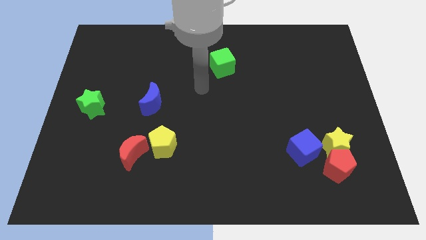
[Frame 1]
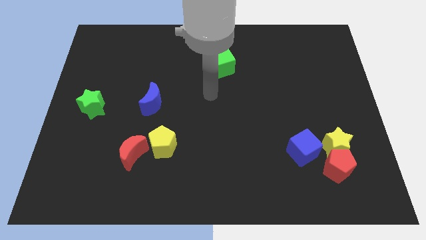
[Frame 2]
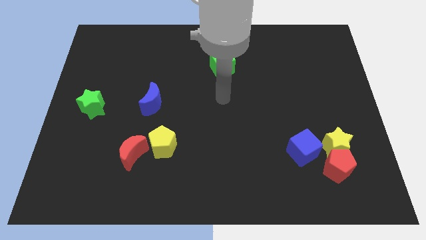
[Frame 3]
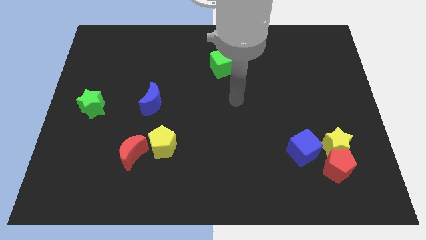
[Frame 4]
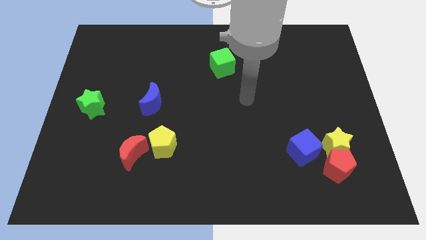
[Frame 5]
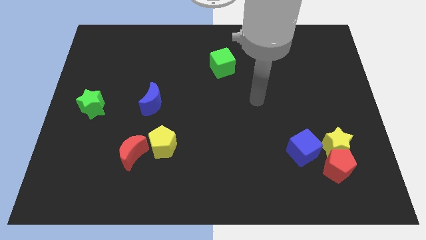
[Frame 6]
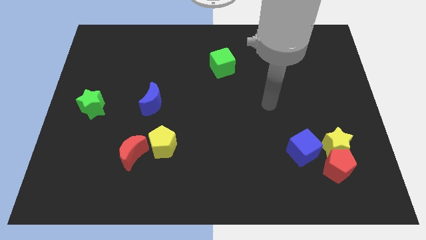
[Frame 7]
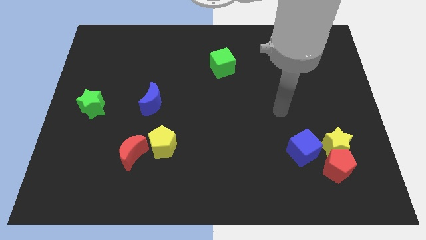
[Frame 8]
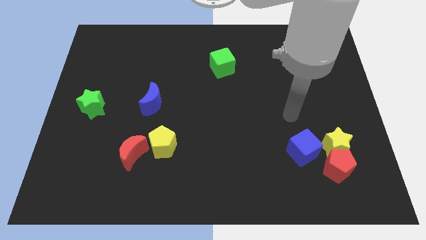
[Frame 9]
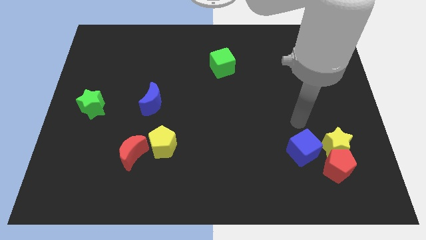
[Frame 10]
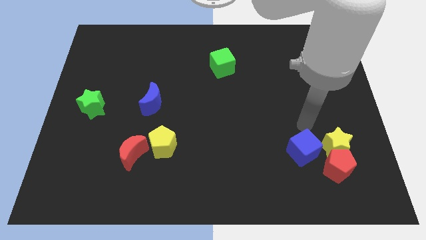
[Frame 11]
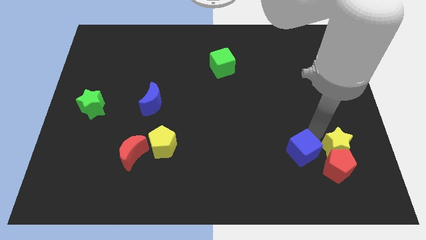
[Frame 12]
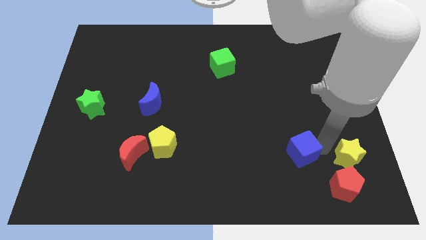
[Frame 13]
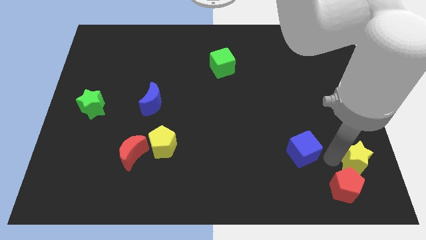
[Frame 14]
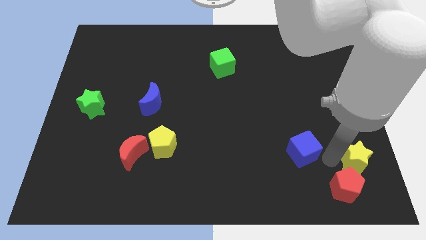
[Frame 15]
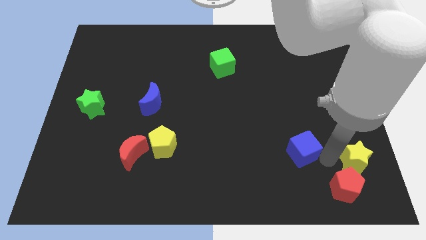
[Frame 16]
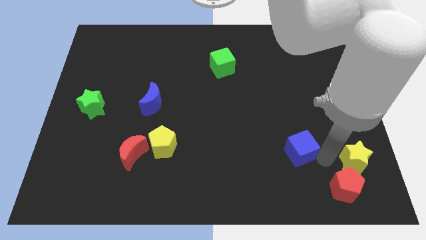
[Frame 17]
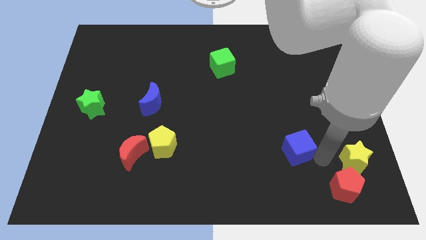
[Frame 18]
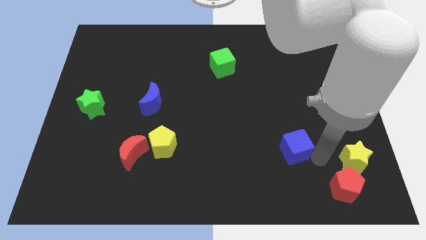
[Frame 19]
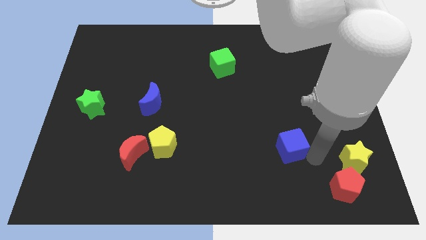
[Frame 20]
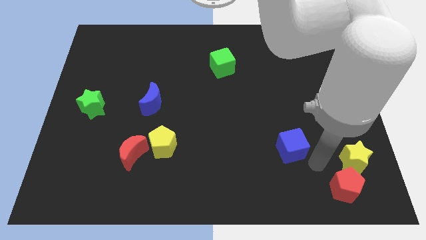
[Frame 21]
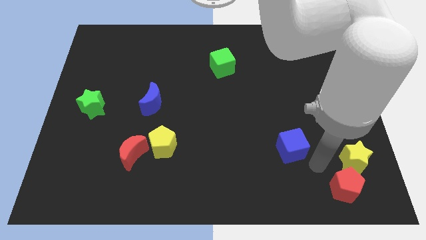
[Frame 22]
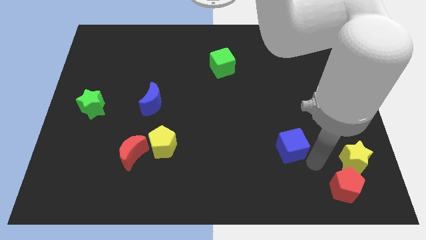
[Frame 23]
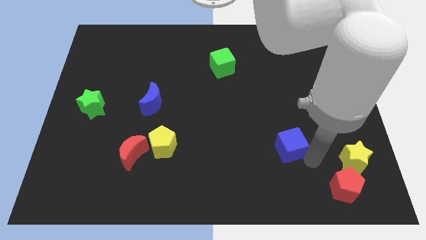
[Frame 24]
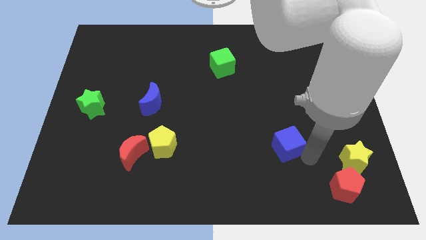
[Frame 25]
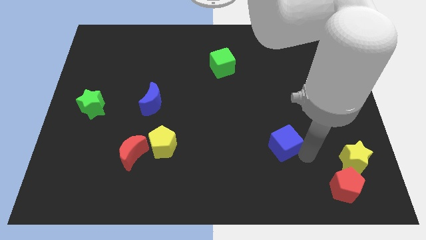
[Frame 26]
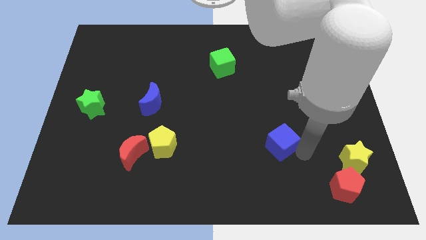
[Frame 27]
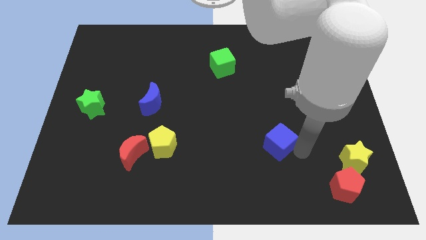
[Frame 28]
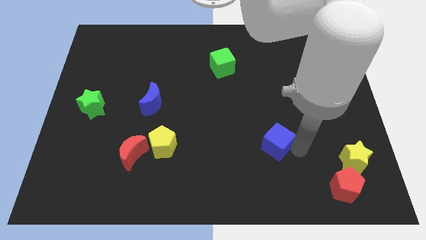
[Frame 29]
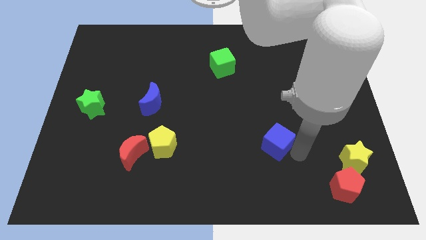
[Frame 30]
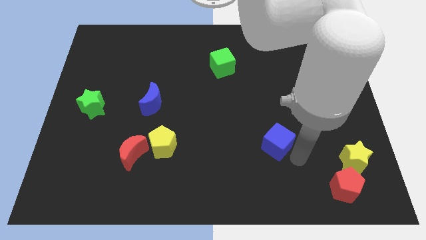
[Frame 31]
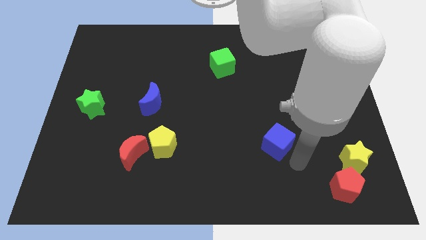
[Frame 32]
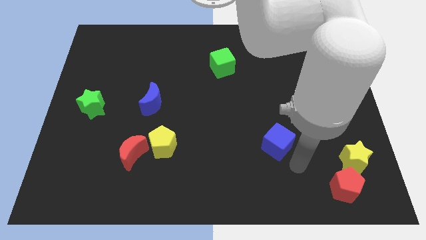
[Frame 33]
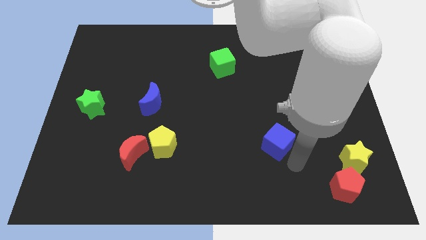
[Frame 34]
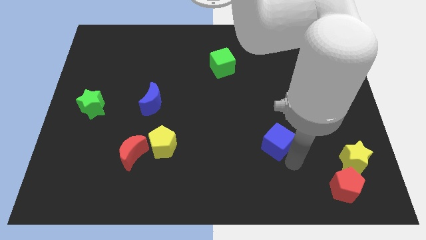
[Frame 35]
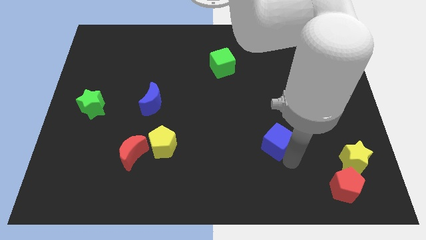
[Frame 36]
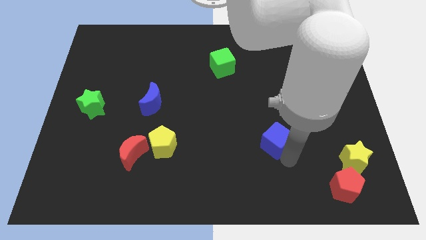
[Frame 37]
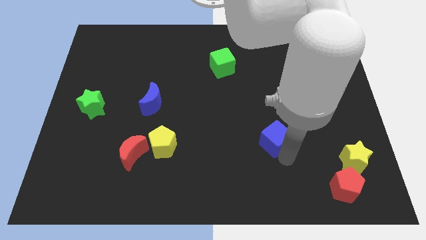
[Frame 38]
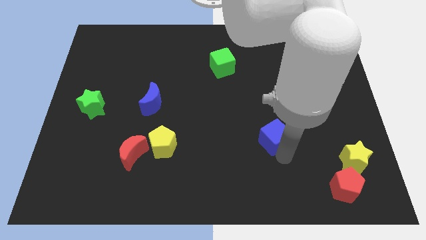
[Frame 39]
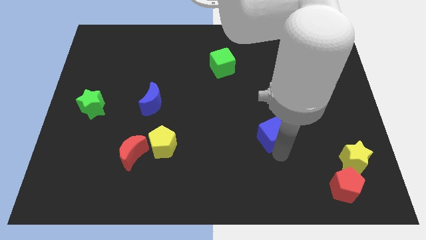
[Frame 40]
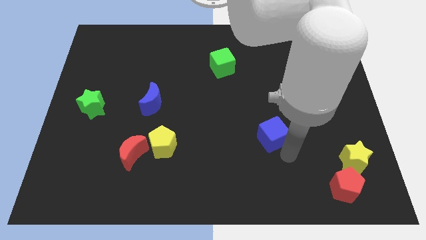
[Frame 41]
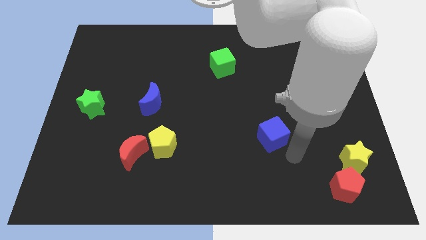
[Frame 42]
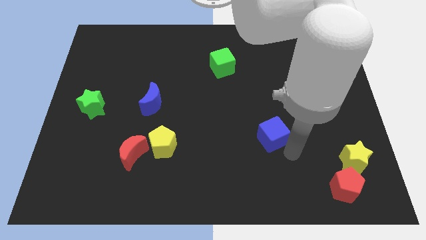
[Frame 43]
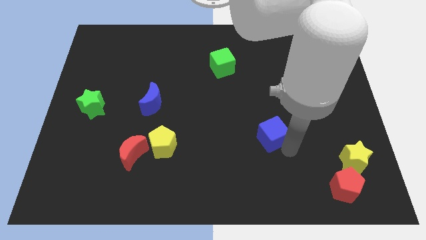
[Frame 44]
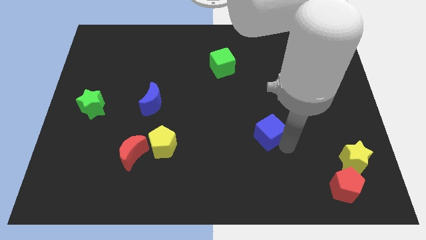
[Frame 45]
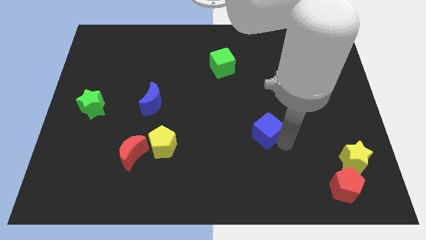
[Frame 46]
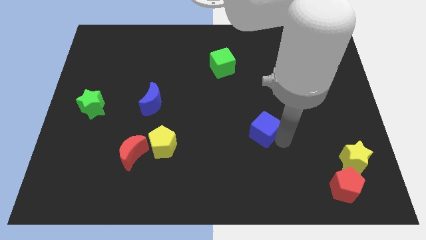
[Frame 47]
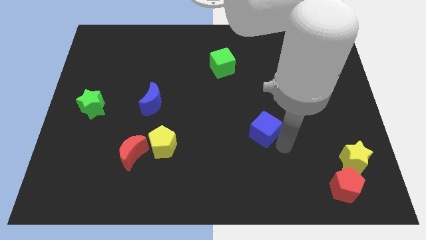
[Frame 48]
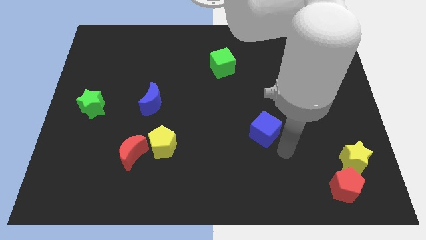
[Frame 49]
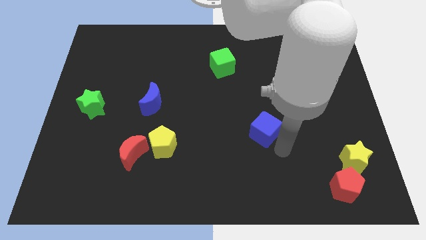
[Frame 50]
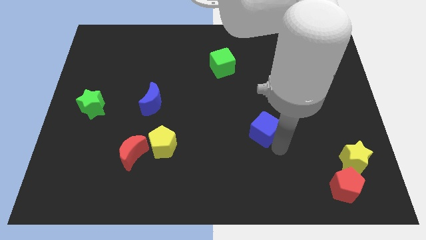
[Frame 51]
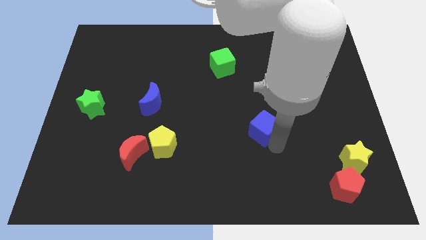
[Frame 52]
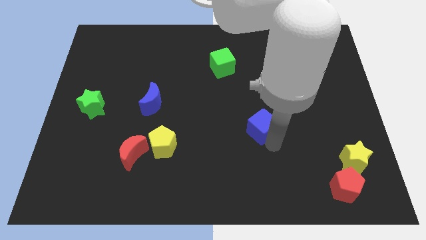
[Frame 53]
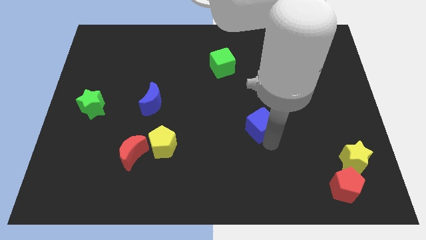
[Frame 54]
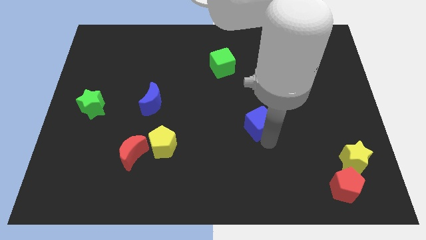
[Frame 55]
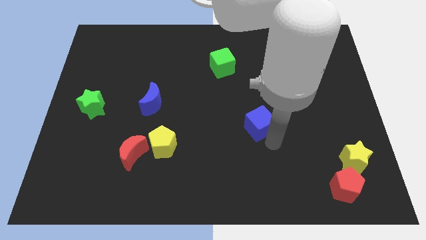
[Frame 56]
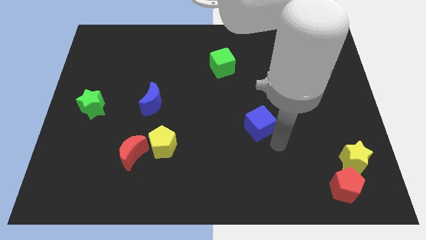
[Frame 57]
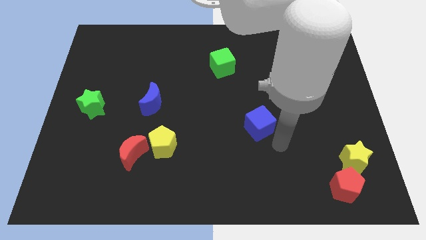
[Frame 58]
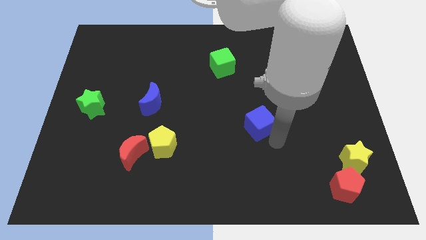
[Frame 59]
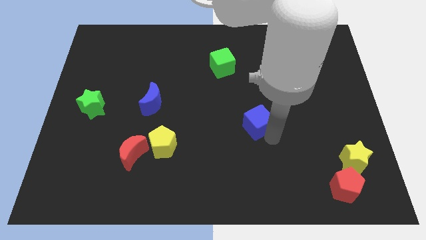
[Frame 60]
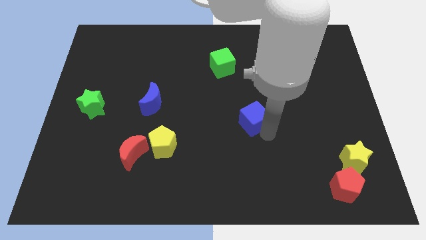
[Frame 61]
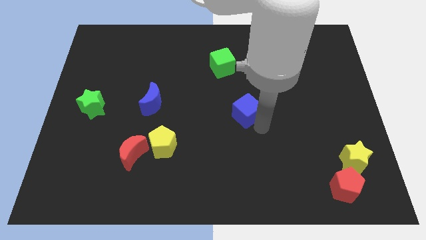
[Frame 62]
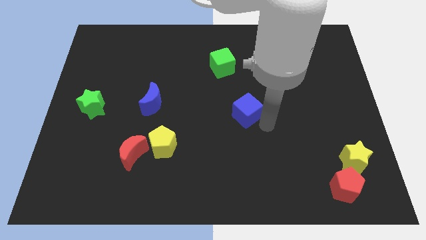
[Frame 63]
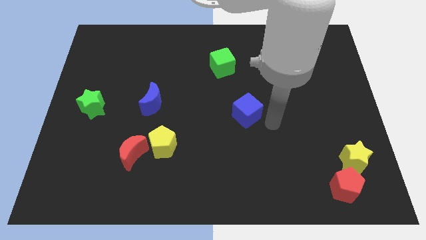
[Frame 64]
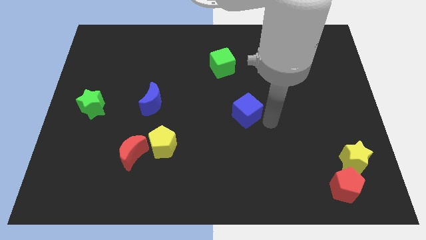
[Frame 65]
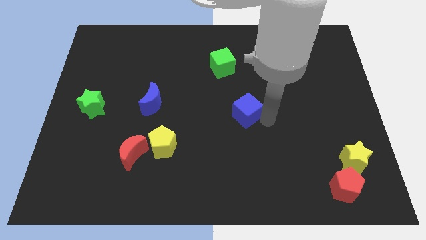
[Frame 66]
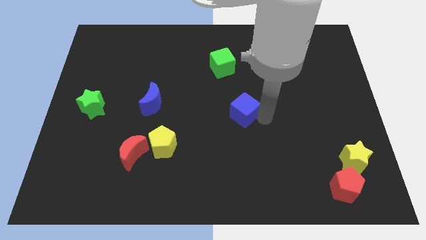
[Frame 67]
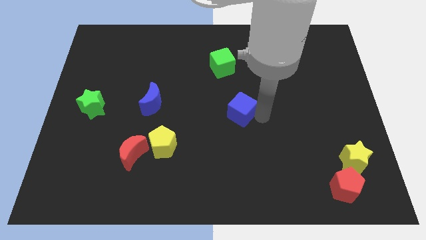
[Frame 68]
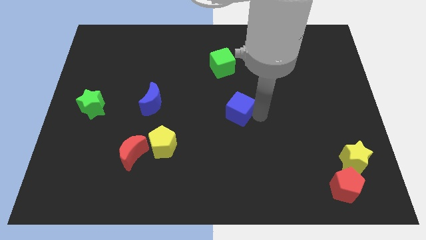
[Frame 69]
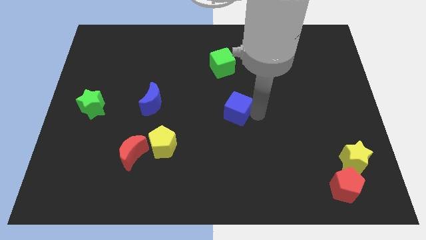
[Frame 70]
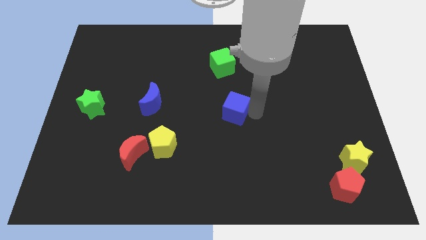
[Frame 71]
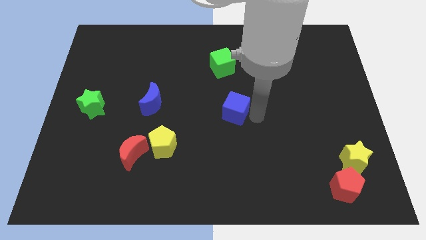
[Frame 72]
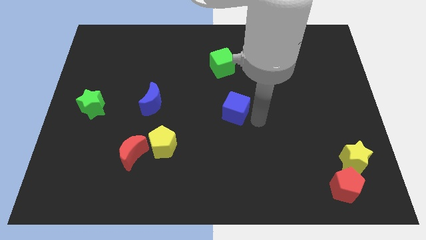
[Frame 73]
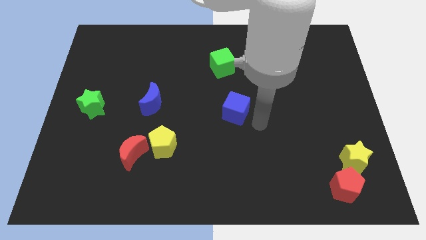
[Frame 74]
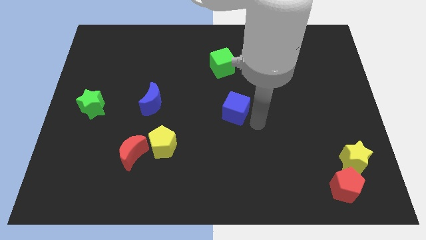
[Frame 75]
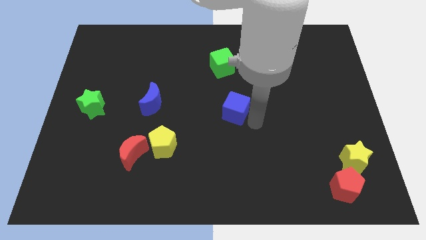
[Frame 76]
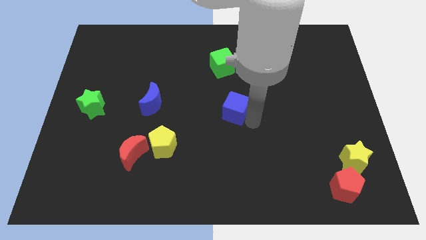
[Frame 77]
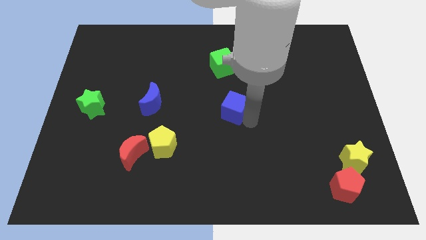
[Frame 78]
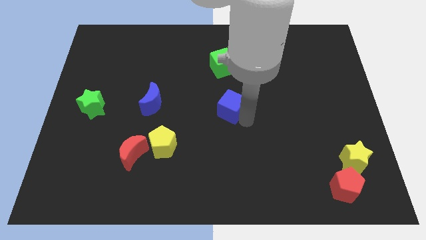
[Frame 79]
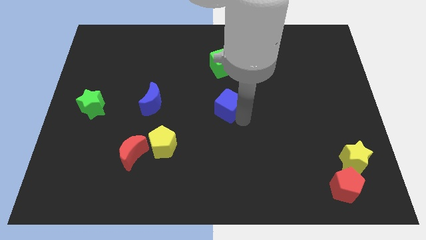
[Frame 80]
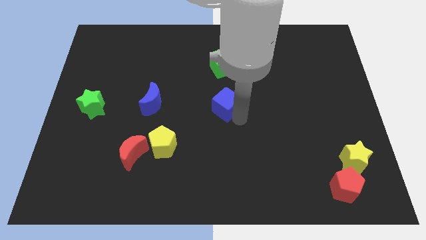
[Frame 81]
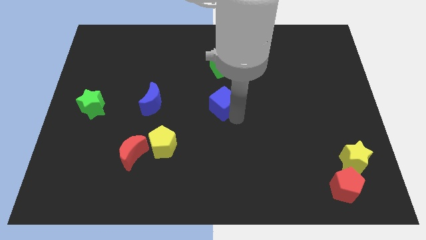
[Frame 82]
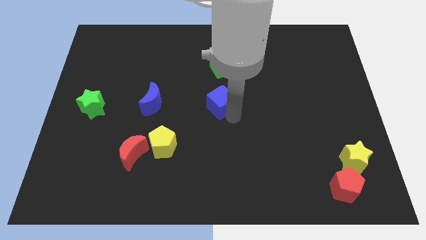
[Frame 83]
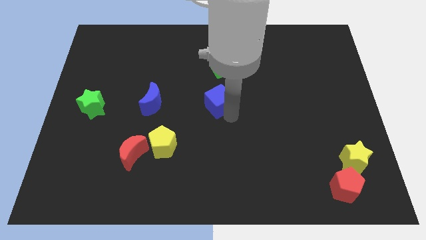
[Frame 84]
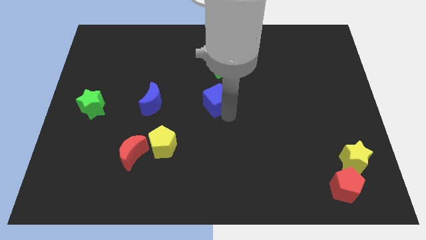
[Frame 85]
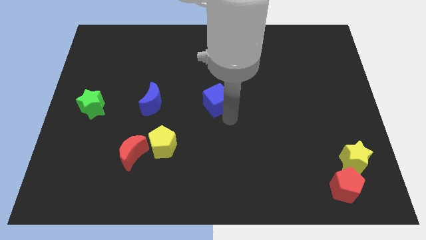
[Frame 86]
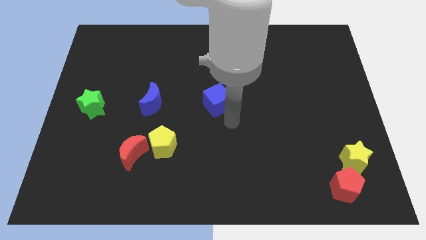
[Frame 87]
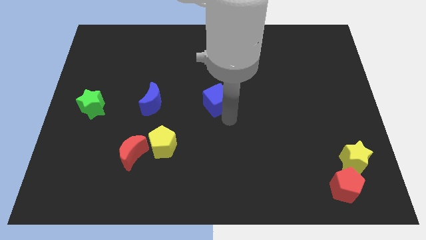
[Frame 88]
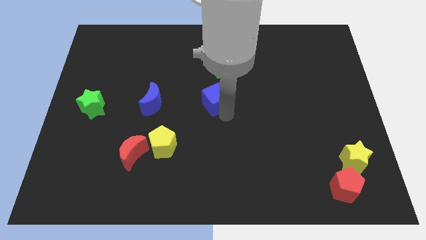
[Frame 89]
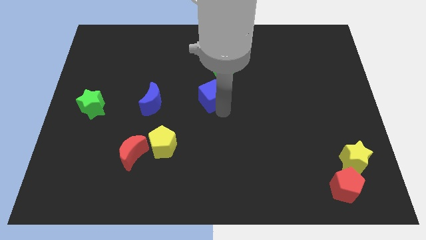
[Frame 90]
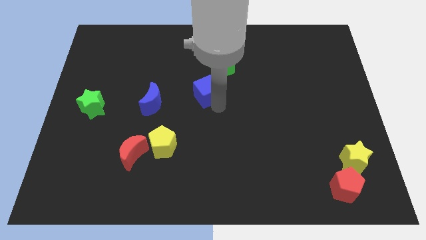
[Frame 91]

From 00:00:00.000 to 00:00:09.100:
move the blue cube to the bottom left side of the green cube
